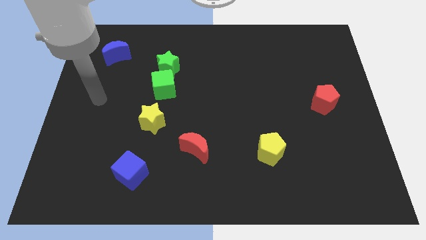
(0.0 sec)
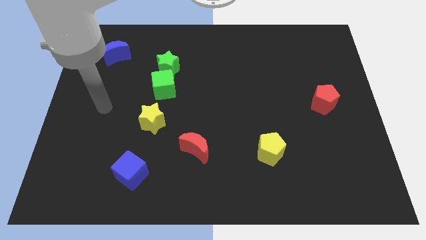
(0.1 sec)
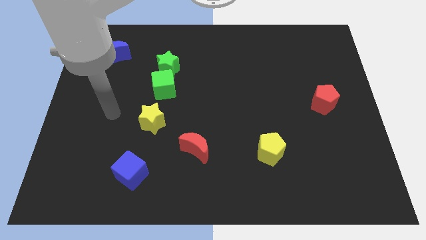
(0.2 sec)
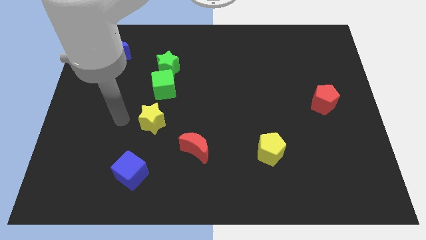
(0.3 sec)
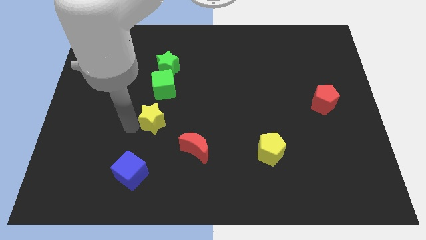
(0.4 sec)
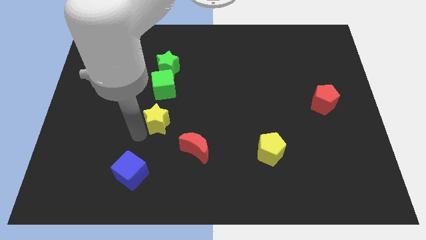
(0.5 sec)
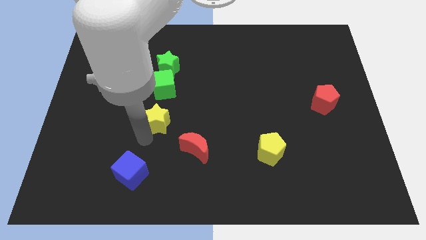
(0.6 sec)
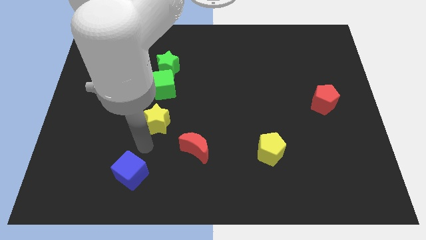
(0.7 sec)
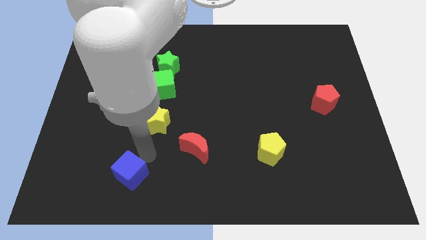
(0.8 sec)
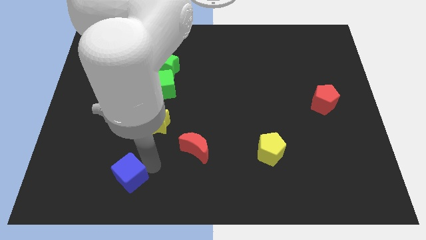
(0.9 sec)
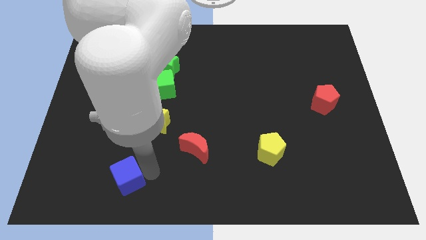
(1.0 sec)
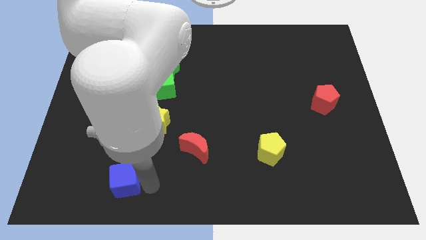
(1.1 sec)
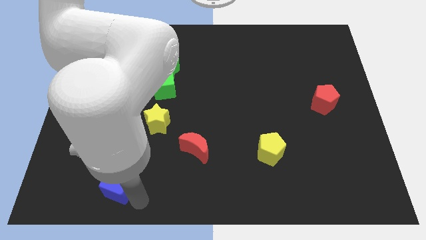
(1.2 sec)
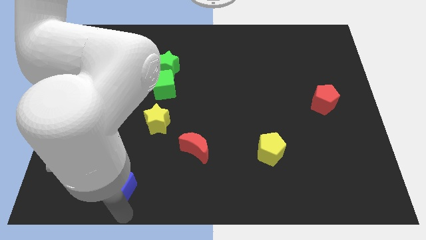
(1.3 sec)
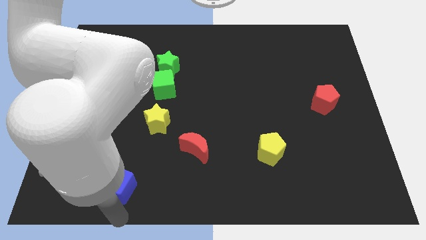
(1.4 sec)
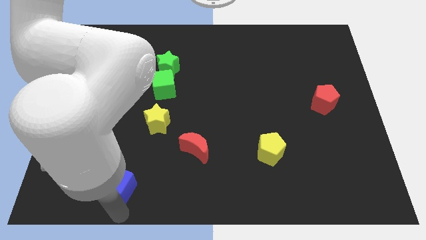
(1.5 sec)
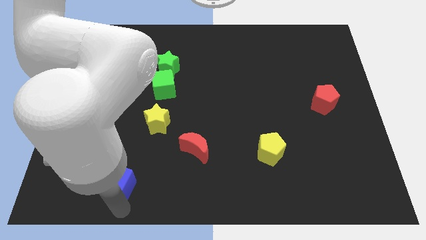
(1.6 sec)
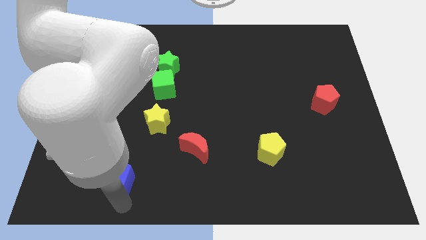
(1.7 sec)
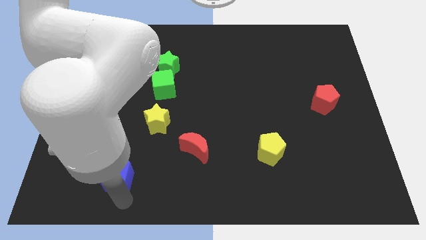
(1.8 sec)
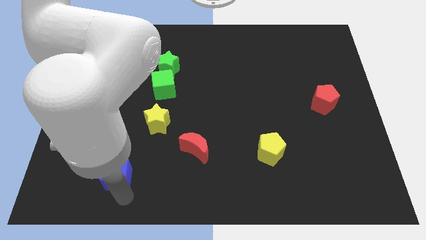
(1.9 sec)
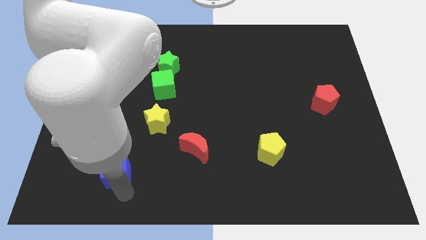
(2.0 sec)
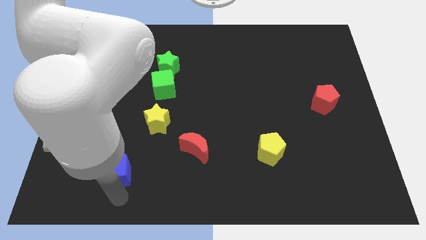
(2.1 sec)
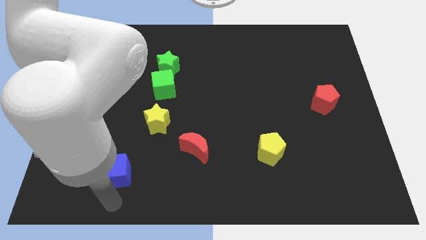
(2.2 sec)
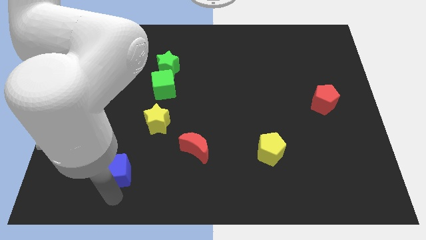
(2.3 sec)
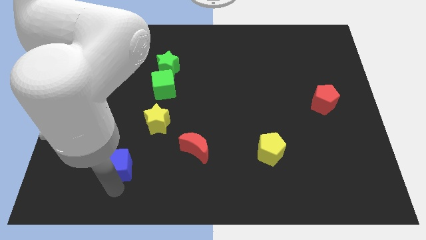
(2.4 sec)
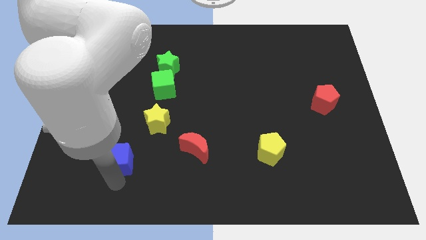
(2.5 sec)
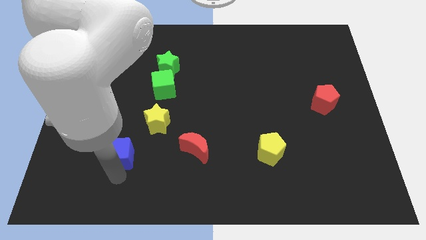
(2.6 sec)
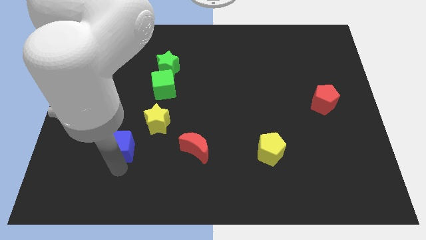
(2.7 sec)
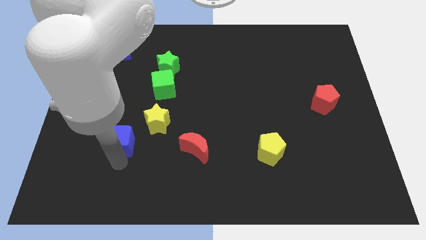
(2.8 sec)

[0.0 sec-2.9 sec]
push the blue cube upwards a bit

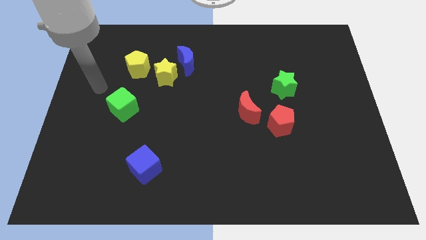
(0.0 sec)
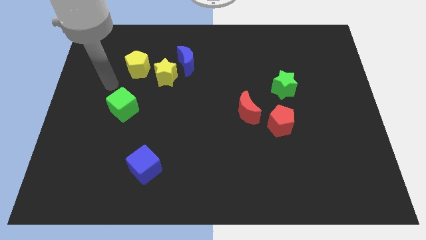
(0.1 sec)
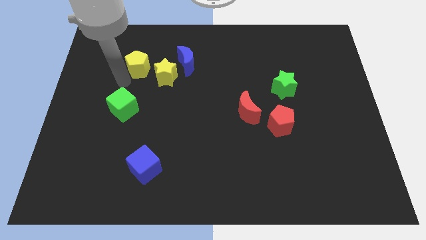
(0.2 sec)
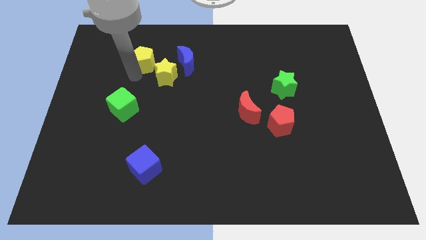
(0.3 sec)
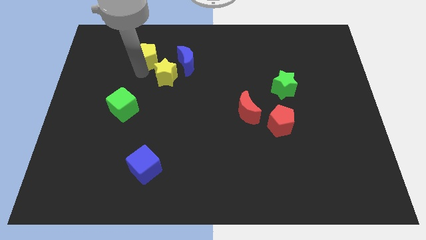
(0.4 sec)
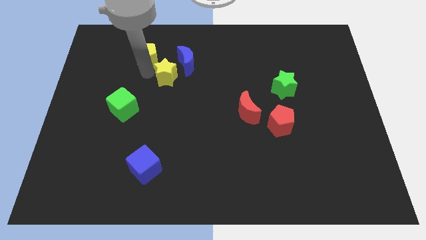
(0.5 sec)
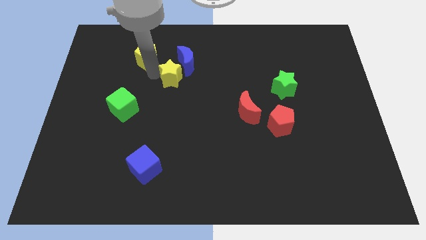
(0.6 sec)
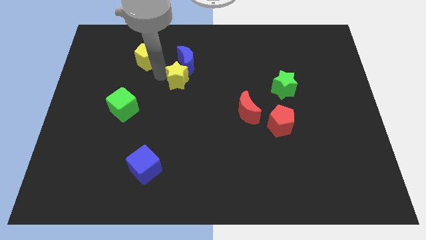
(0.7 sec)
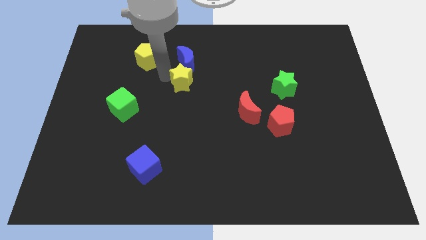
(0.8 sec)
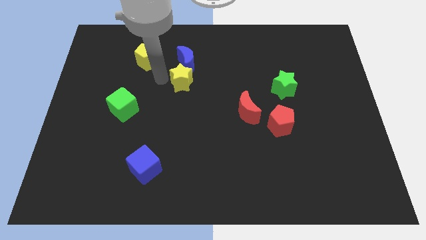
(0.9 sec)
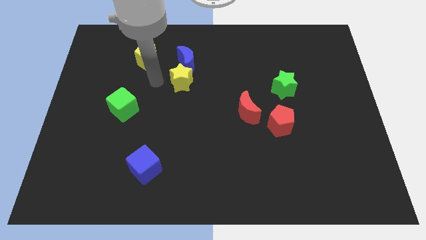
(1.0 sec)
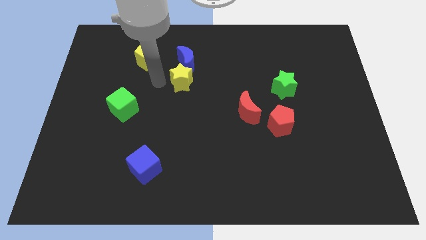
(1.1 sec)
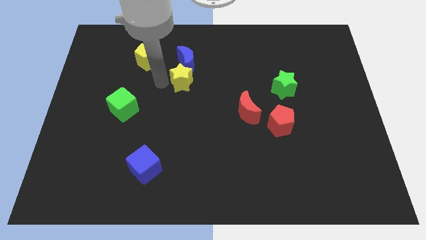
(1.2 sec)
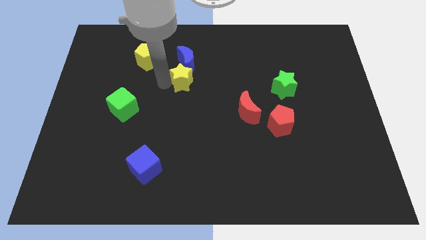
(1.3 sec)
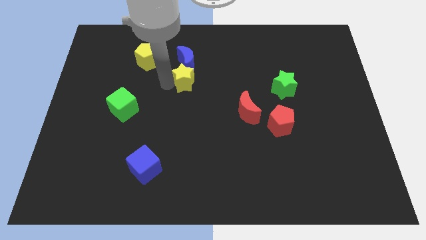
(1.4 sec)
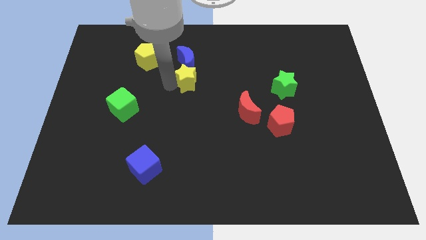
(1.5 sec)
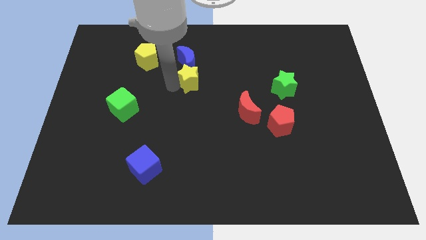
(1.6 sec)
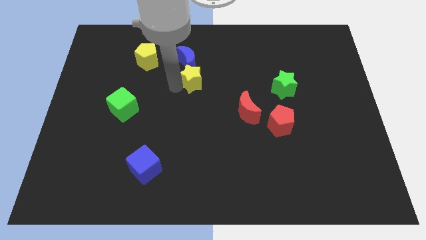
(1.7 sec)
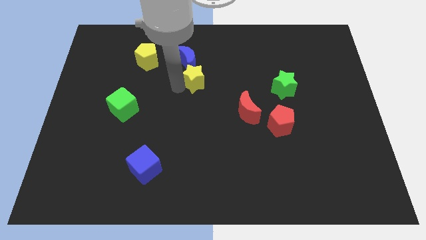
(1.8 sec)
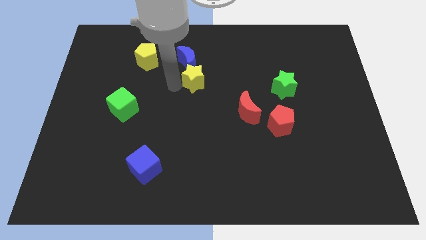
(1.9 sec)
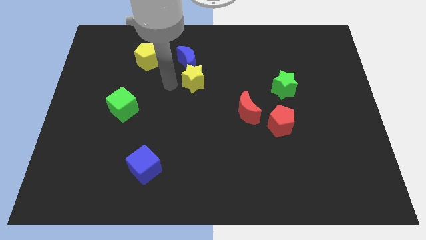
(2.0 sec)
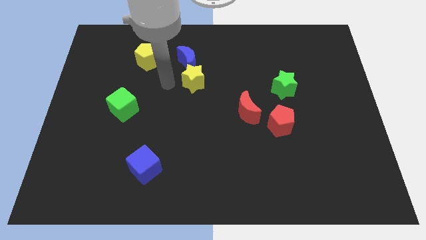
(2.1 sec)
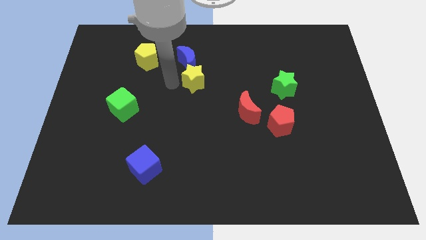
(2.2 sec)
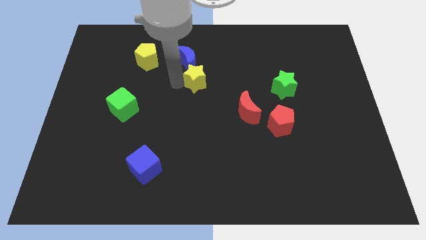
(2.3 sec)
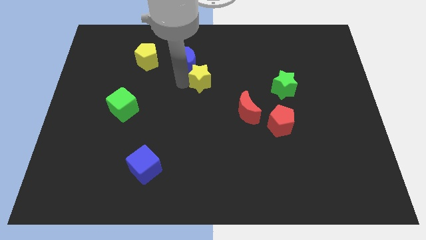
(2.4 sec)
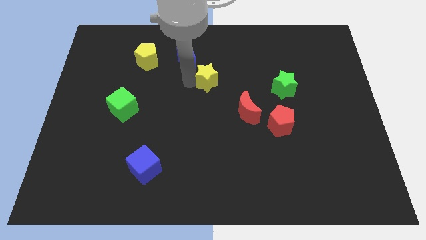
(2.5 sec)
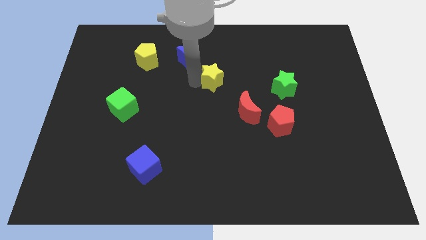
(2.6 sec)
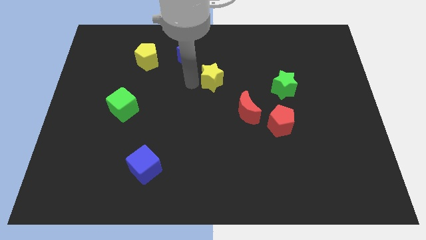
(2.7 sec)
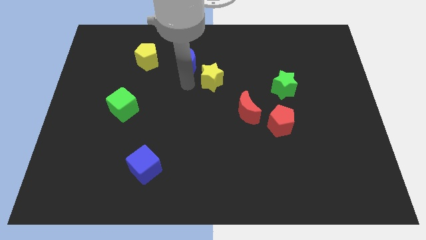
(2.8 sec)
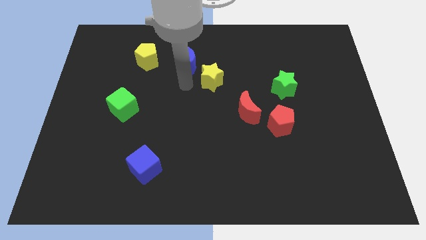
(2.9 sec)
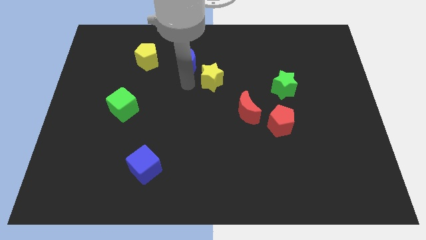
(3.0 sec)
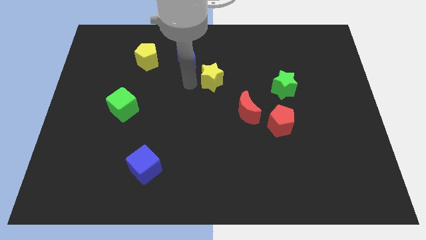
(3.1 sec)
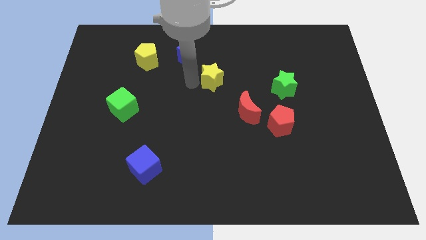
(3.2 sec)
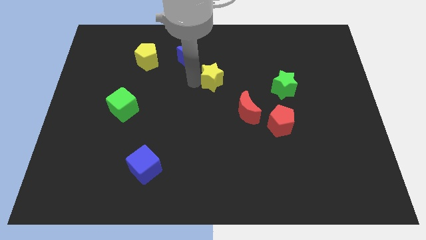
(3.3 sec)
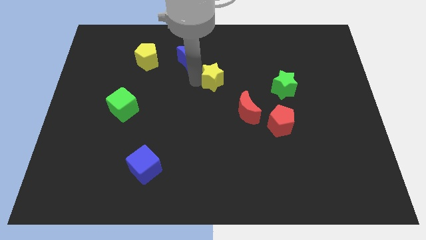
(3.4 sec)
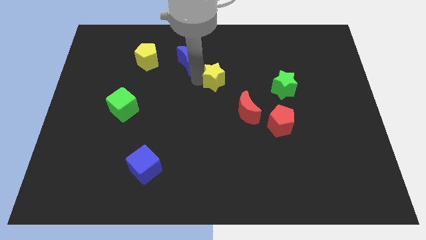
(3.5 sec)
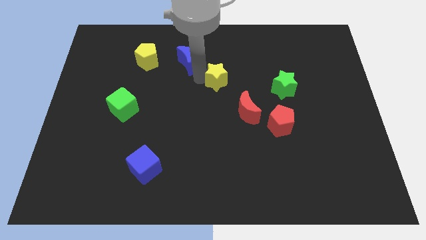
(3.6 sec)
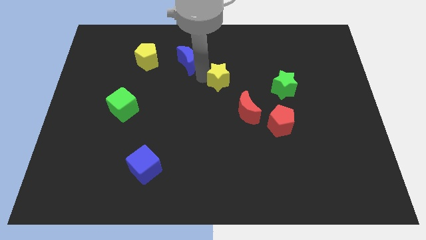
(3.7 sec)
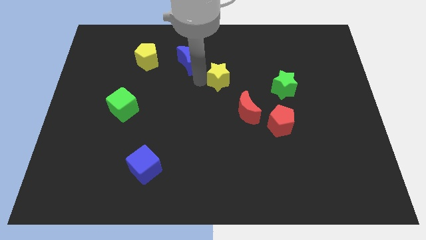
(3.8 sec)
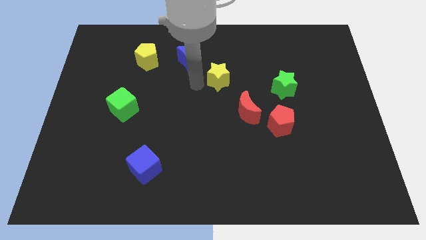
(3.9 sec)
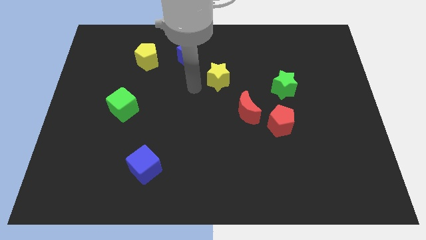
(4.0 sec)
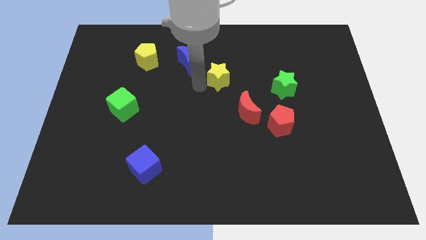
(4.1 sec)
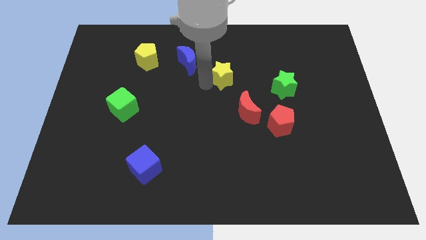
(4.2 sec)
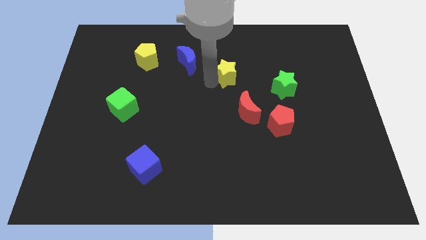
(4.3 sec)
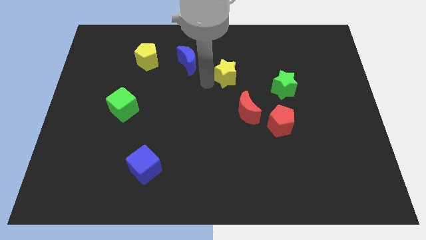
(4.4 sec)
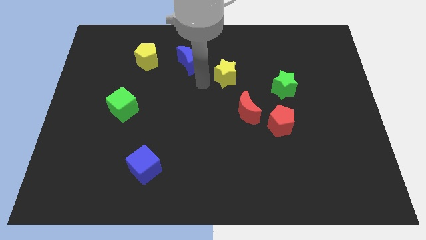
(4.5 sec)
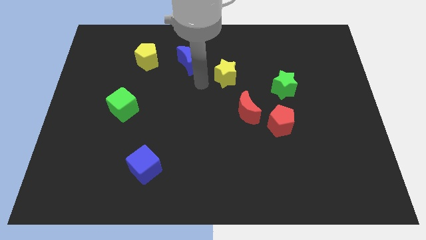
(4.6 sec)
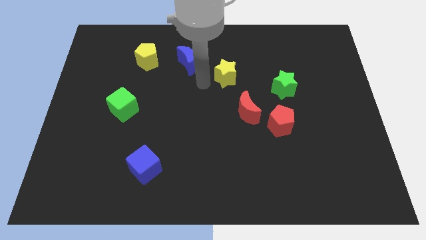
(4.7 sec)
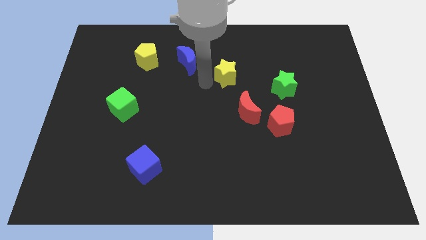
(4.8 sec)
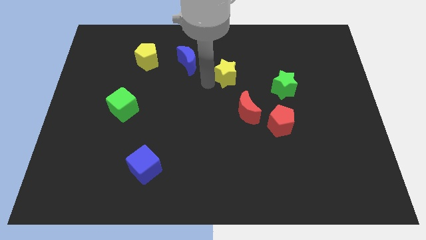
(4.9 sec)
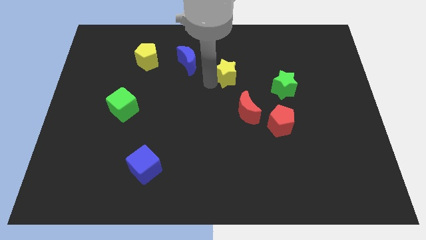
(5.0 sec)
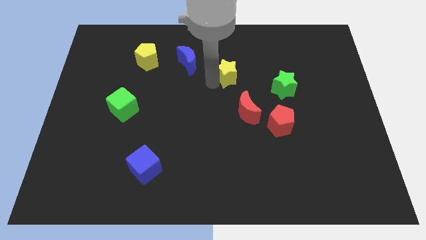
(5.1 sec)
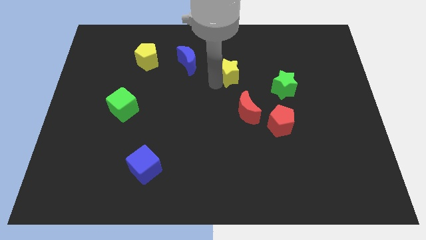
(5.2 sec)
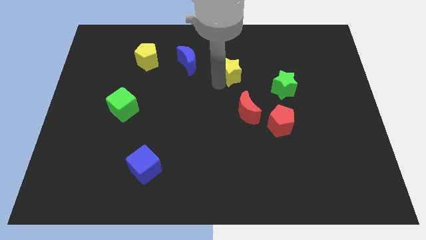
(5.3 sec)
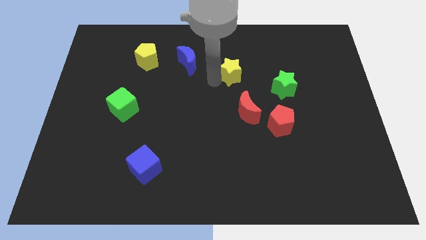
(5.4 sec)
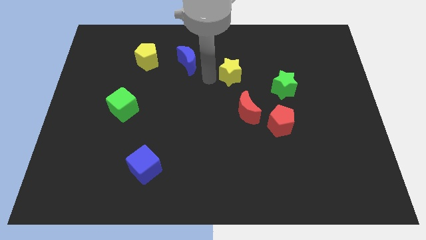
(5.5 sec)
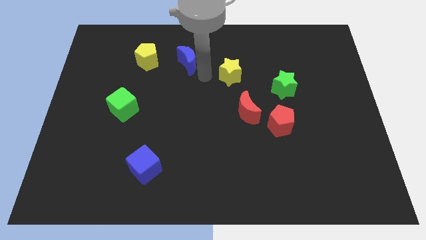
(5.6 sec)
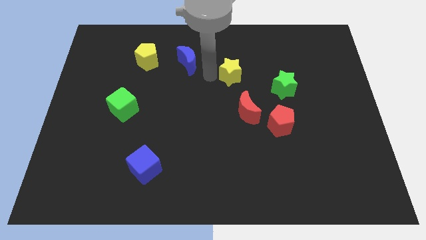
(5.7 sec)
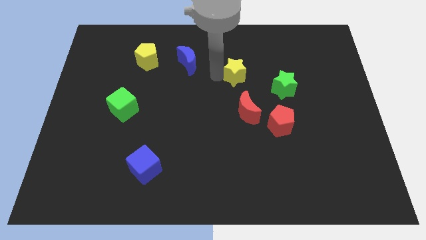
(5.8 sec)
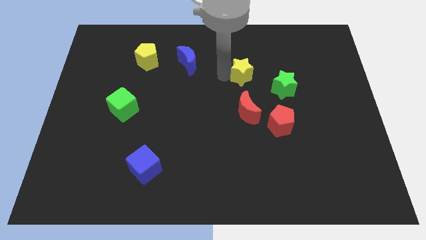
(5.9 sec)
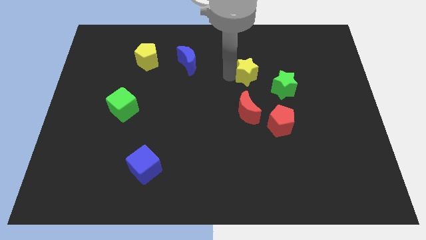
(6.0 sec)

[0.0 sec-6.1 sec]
slide the yellow star to the right
